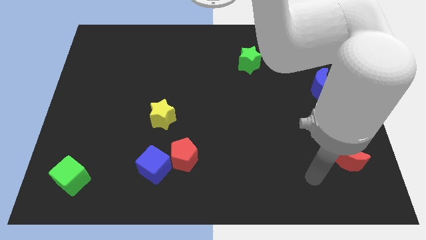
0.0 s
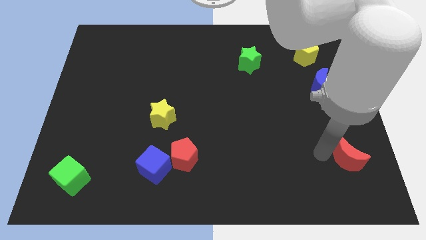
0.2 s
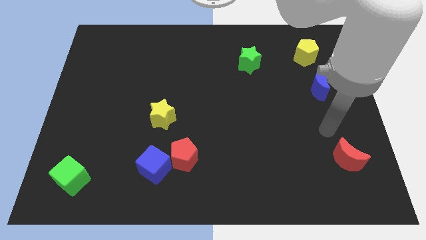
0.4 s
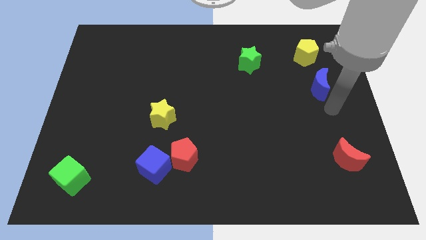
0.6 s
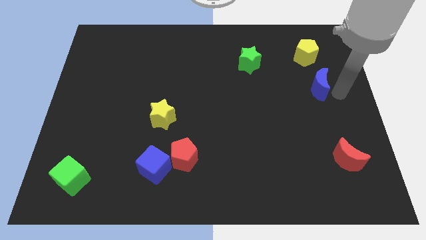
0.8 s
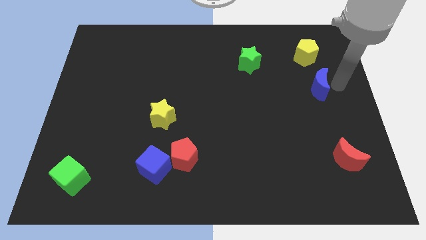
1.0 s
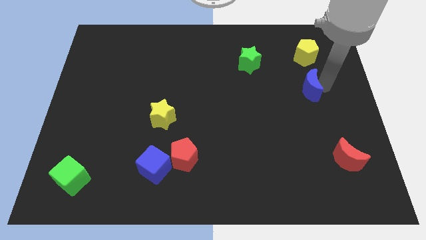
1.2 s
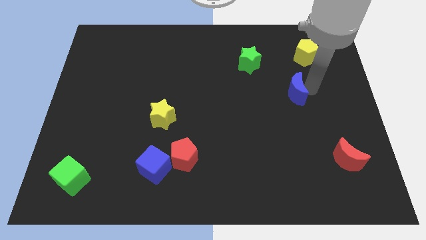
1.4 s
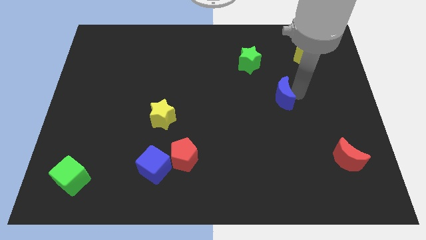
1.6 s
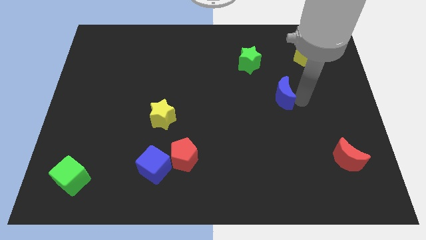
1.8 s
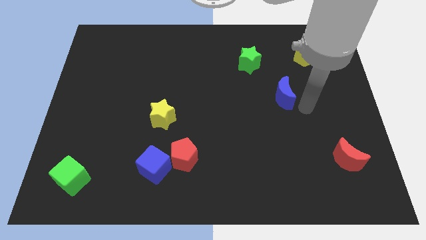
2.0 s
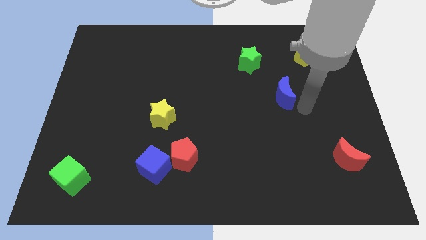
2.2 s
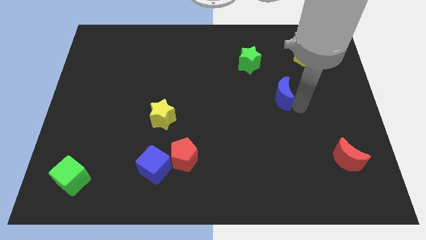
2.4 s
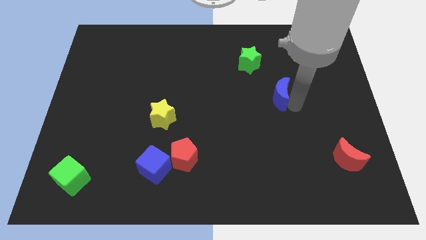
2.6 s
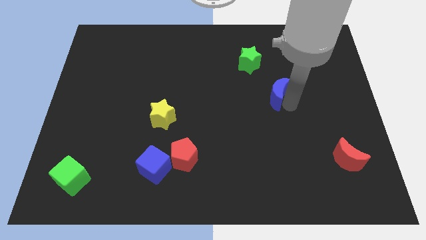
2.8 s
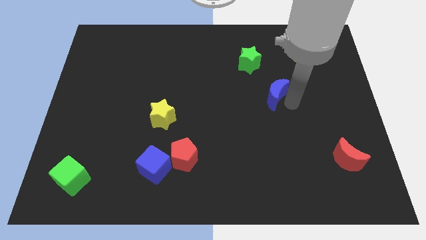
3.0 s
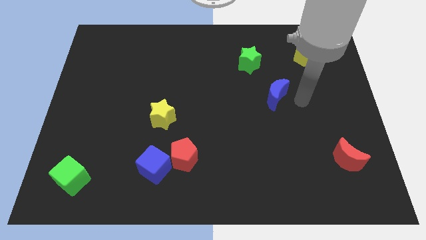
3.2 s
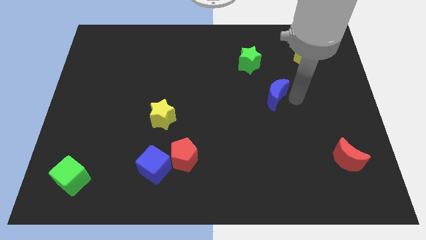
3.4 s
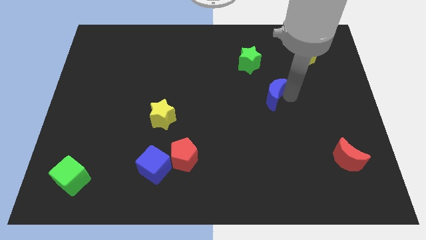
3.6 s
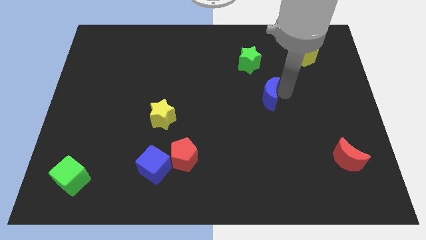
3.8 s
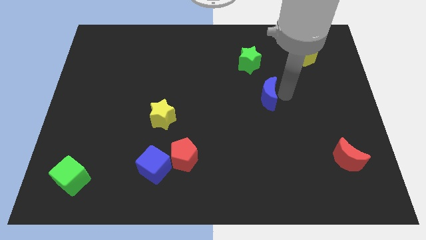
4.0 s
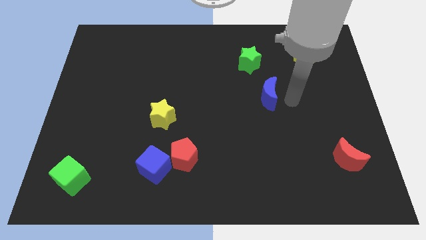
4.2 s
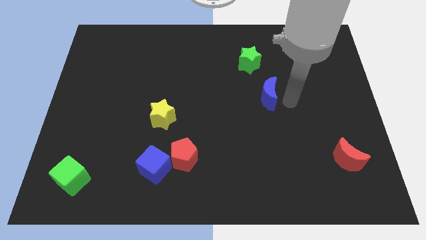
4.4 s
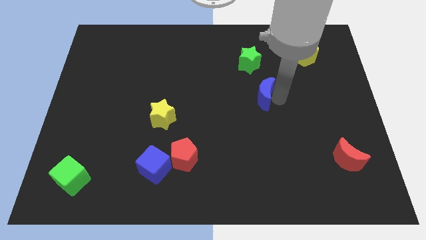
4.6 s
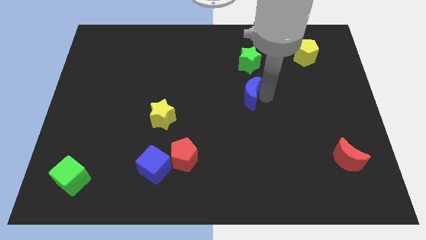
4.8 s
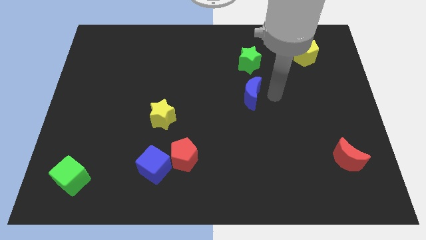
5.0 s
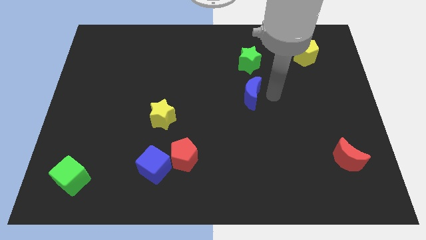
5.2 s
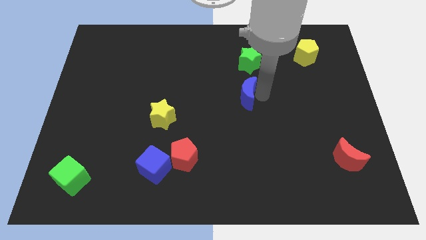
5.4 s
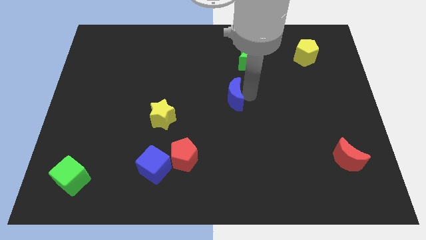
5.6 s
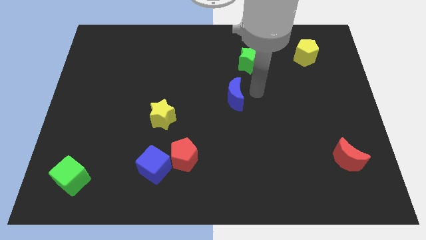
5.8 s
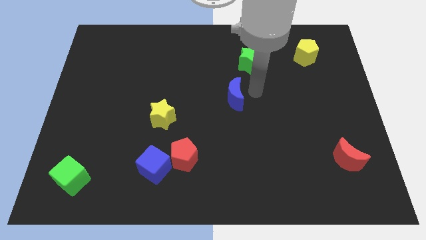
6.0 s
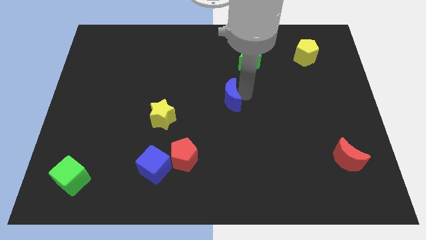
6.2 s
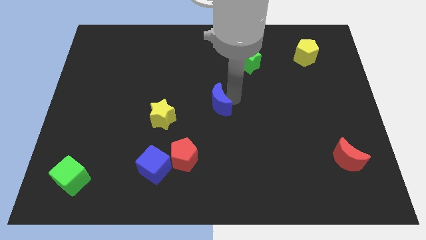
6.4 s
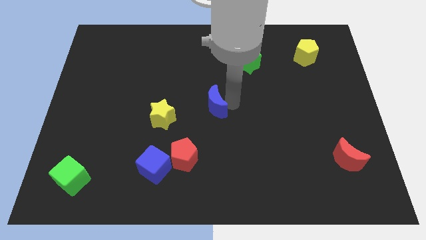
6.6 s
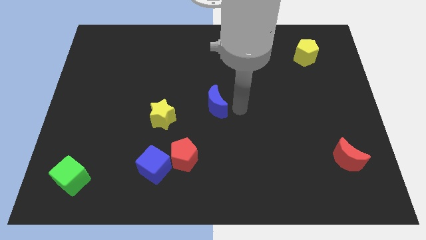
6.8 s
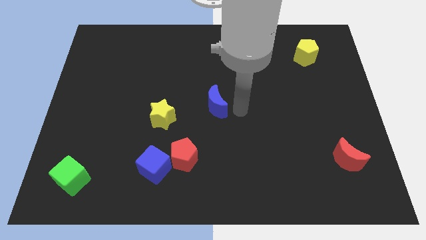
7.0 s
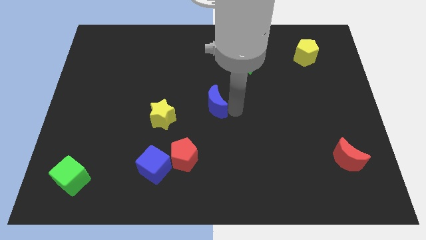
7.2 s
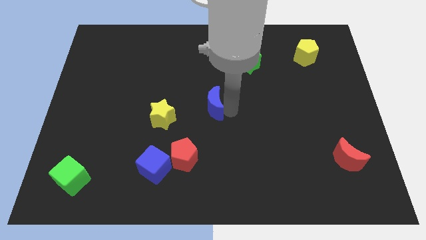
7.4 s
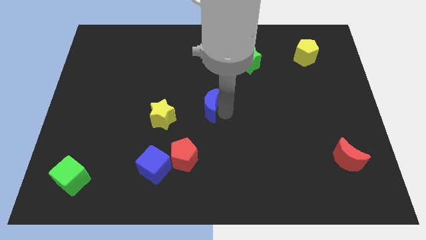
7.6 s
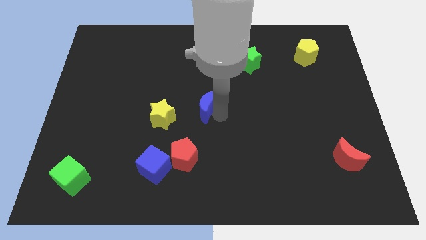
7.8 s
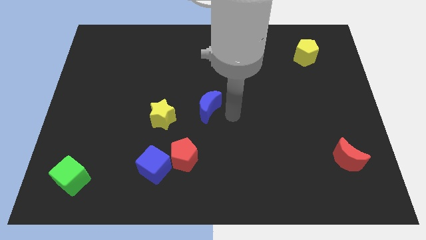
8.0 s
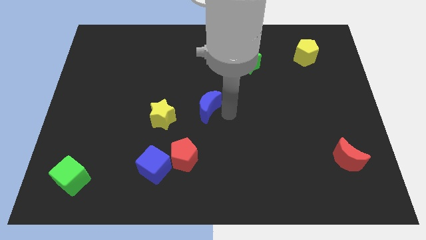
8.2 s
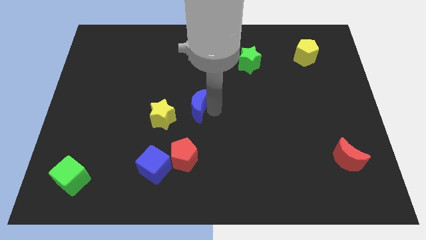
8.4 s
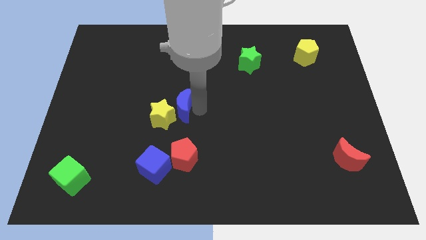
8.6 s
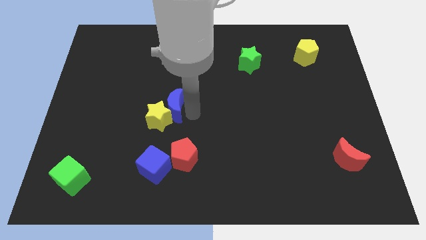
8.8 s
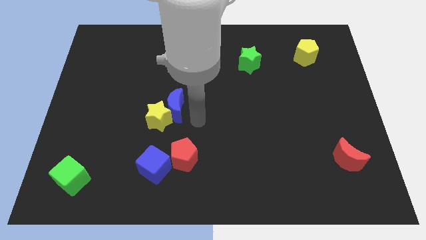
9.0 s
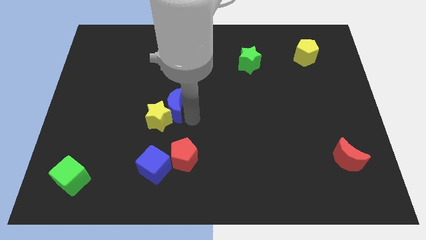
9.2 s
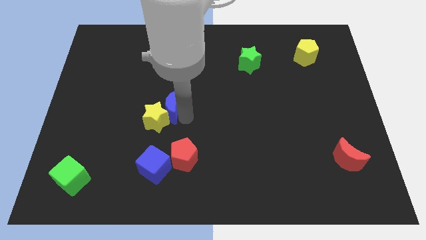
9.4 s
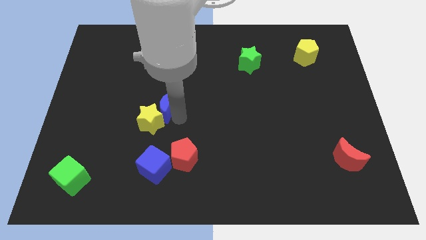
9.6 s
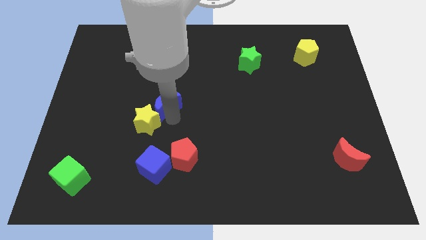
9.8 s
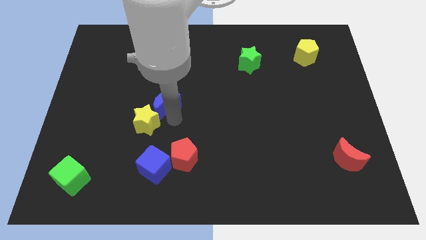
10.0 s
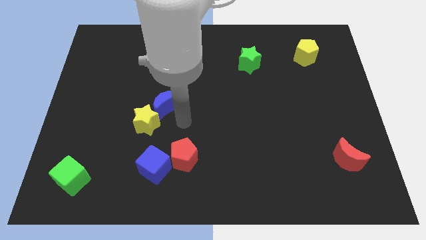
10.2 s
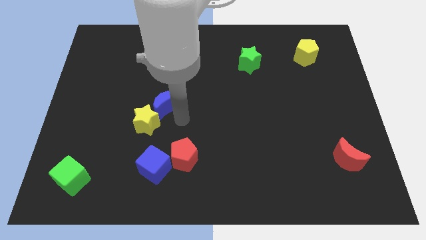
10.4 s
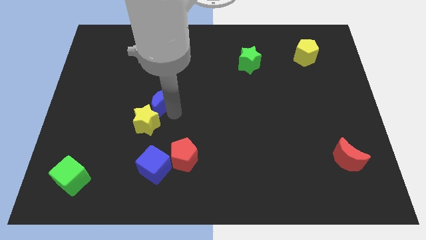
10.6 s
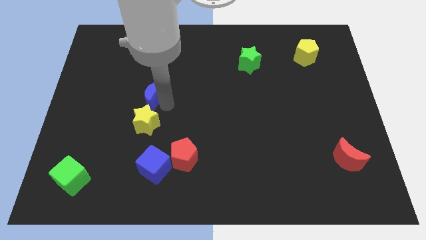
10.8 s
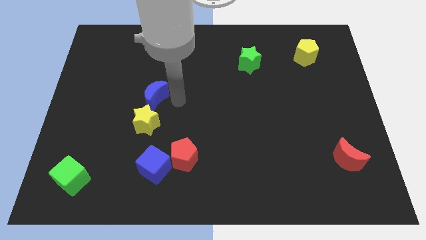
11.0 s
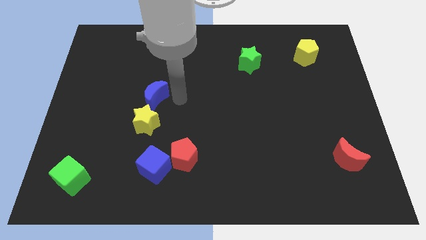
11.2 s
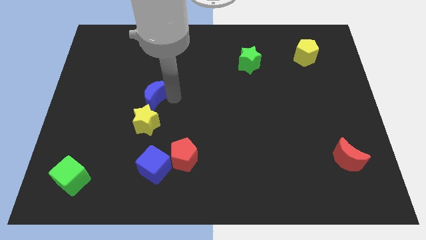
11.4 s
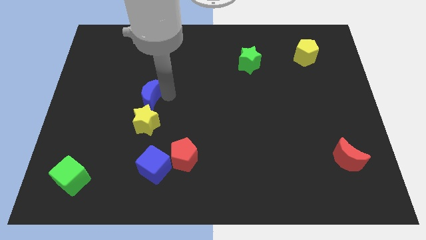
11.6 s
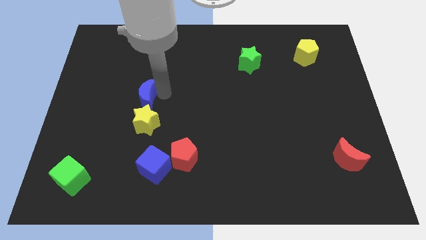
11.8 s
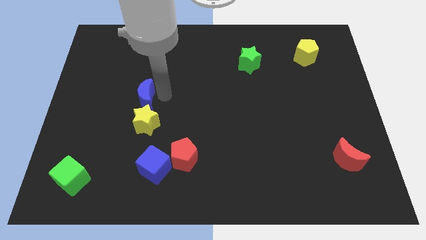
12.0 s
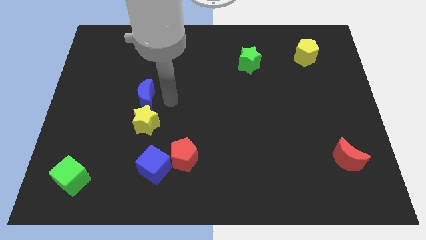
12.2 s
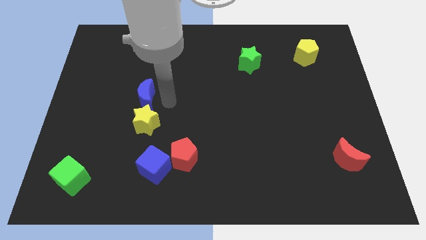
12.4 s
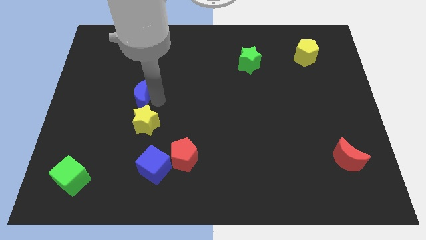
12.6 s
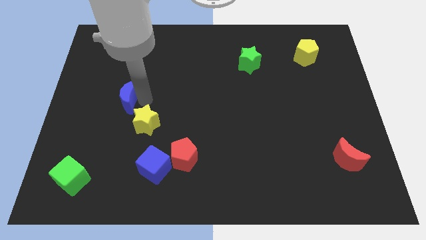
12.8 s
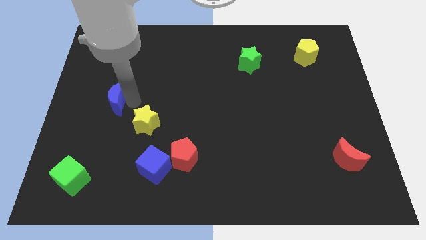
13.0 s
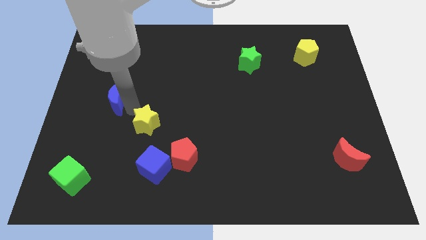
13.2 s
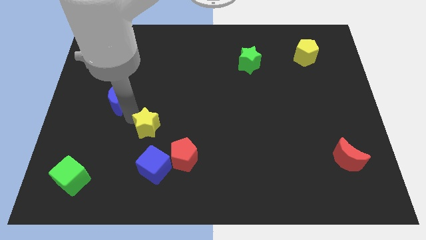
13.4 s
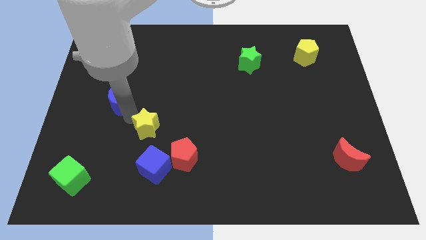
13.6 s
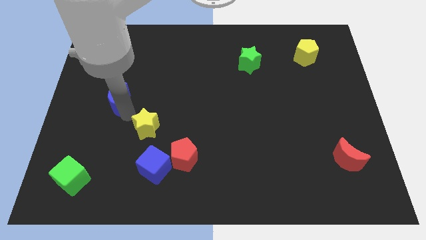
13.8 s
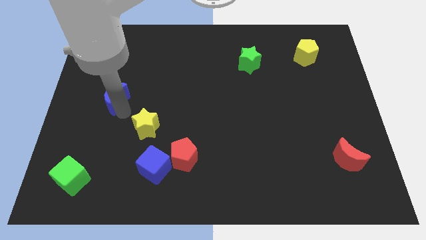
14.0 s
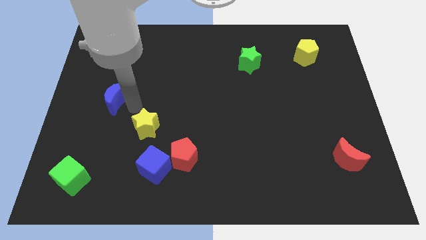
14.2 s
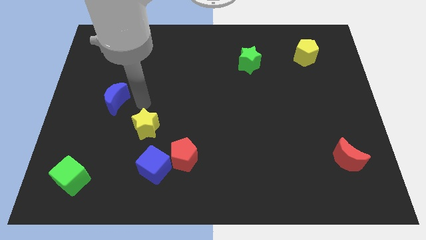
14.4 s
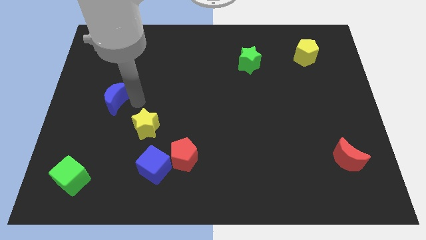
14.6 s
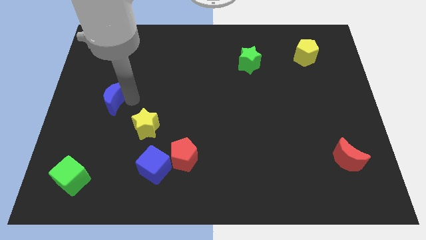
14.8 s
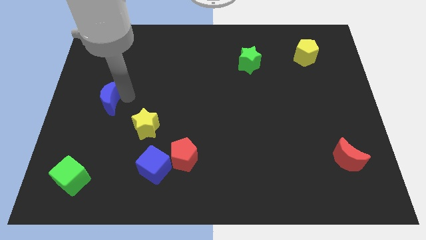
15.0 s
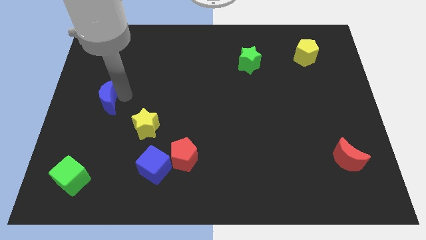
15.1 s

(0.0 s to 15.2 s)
slide the blue moon to the left side of the board
